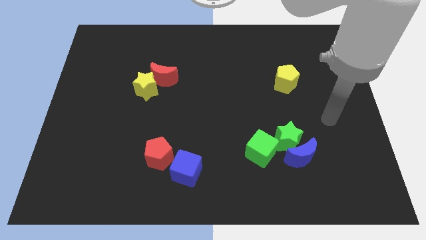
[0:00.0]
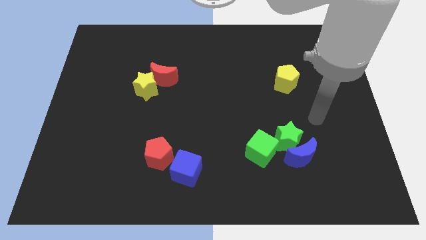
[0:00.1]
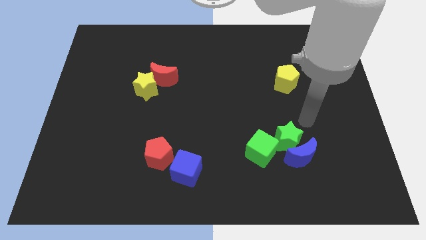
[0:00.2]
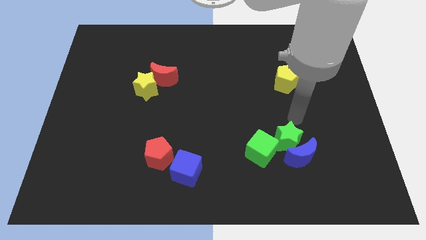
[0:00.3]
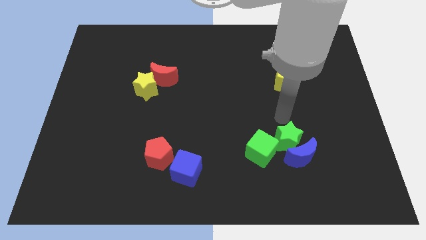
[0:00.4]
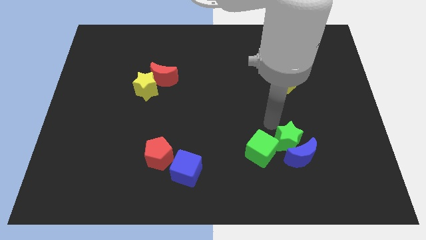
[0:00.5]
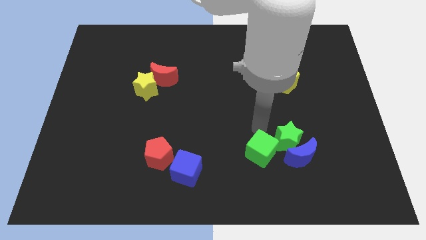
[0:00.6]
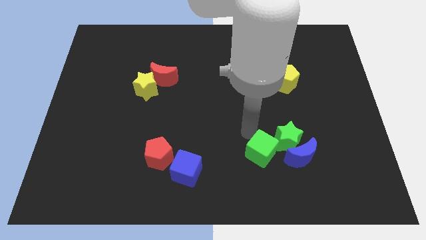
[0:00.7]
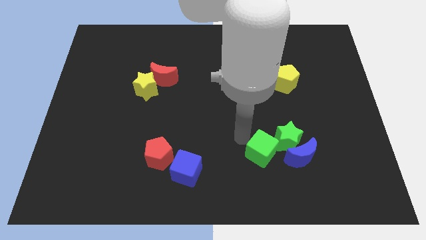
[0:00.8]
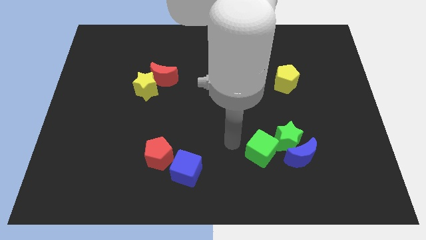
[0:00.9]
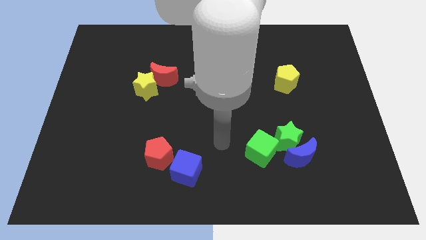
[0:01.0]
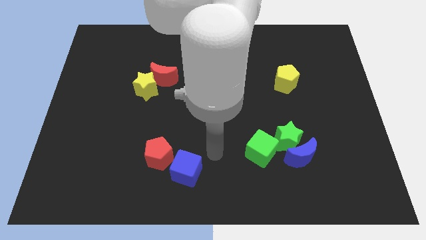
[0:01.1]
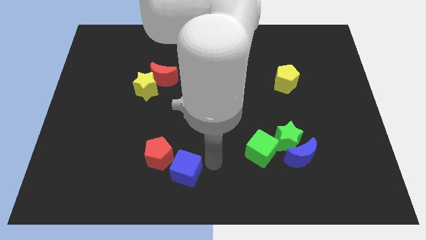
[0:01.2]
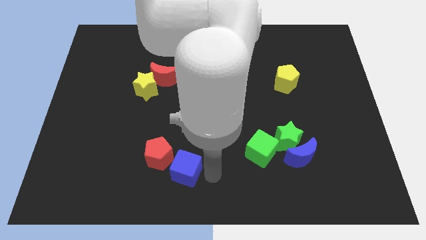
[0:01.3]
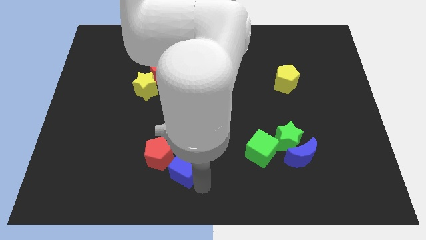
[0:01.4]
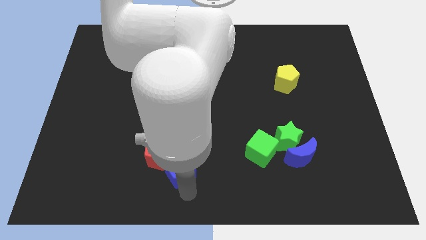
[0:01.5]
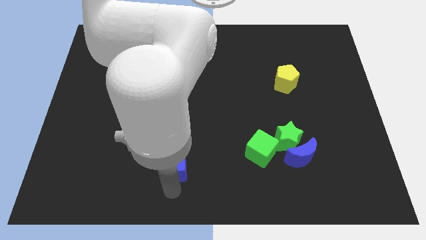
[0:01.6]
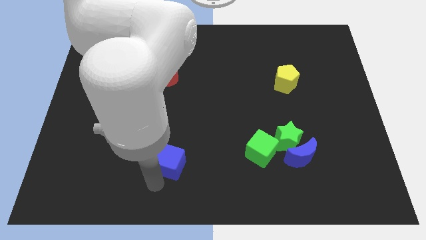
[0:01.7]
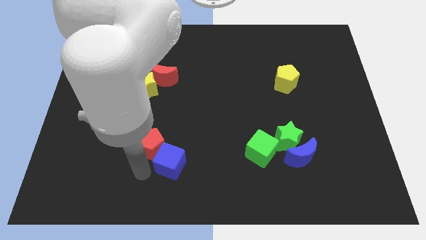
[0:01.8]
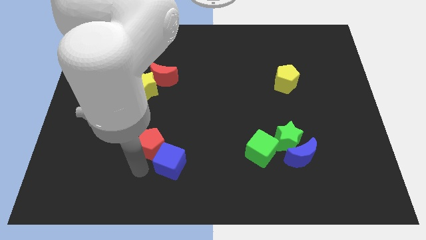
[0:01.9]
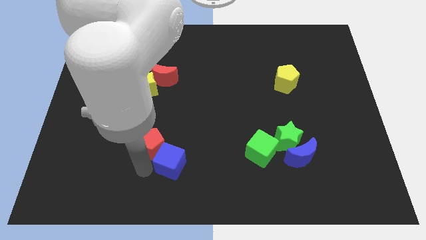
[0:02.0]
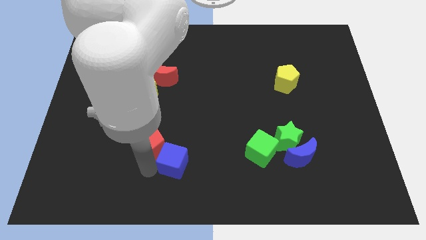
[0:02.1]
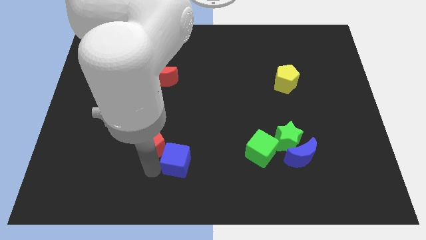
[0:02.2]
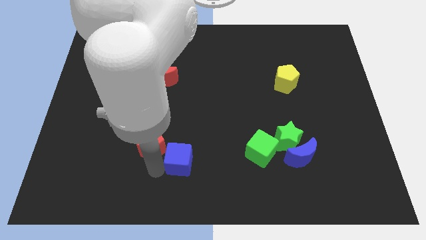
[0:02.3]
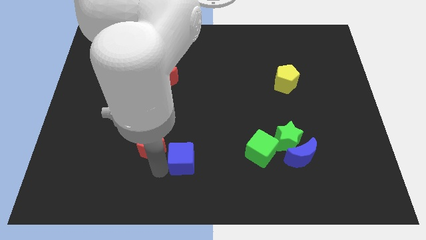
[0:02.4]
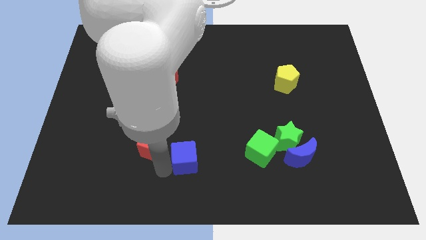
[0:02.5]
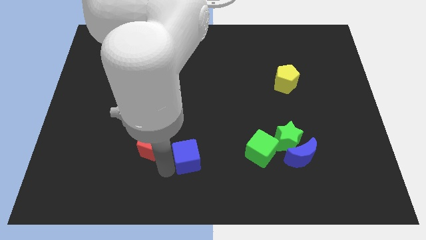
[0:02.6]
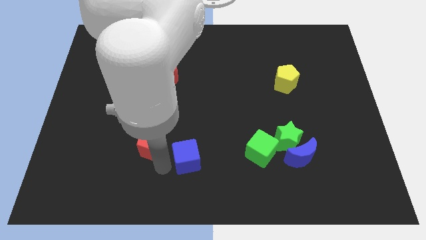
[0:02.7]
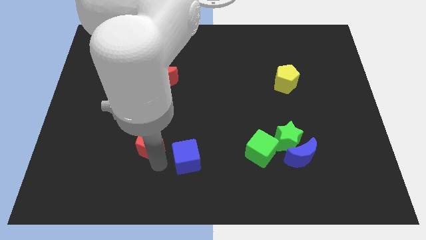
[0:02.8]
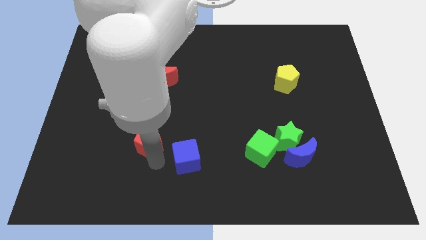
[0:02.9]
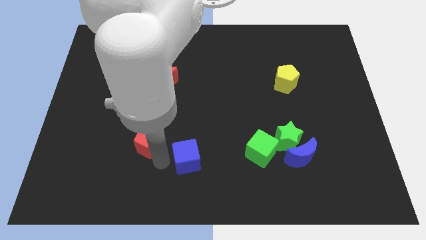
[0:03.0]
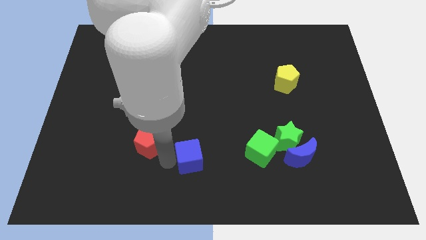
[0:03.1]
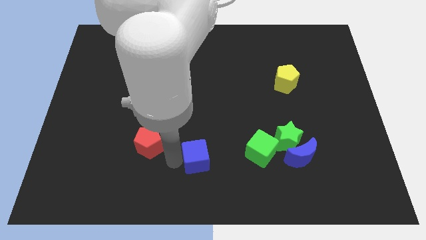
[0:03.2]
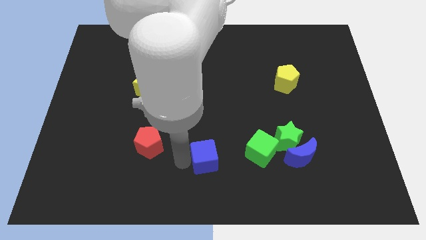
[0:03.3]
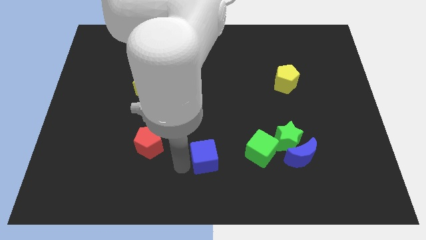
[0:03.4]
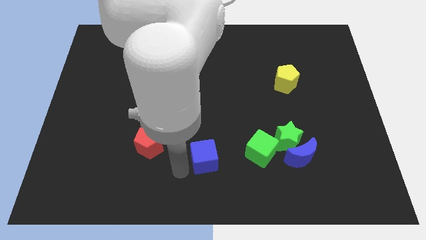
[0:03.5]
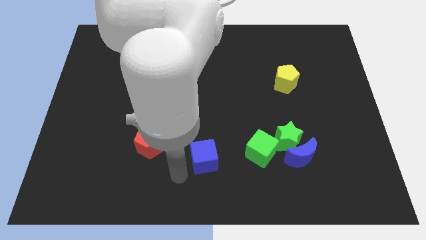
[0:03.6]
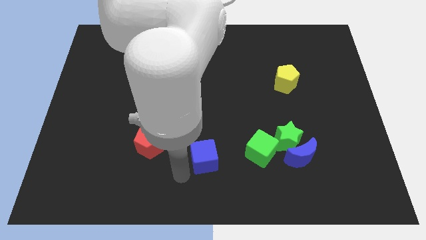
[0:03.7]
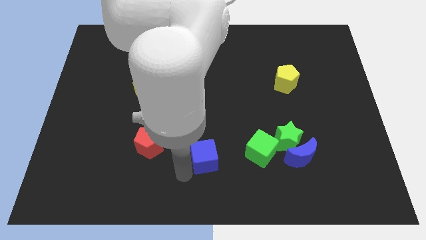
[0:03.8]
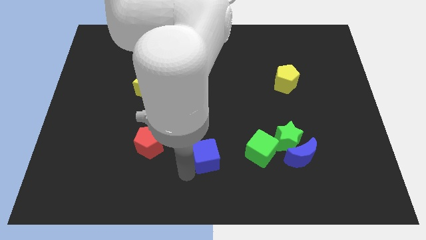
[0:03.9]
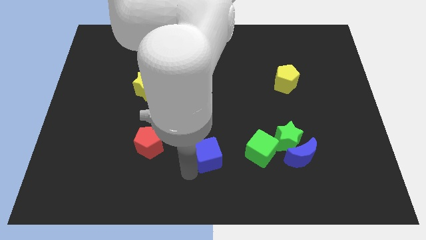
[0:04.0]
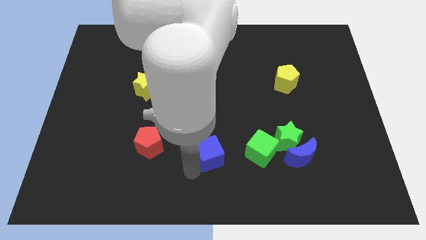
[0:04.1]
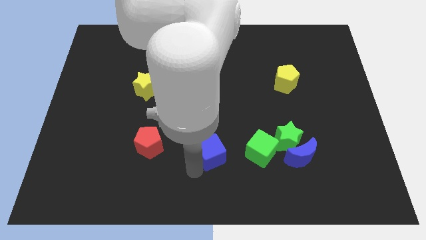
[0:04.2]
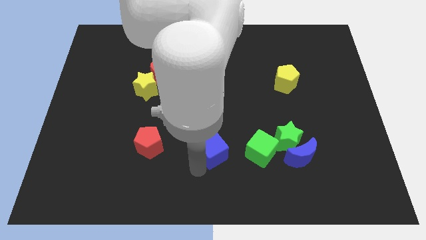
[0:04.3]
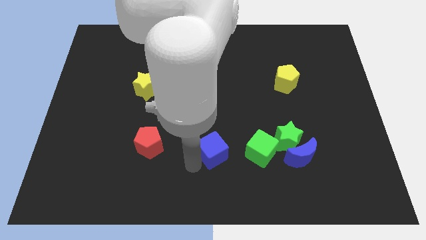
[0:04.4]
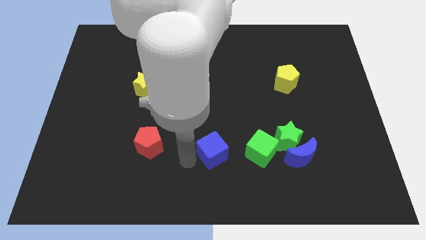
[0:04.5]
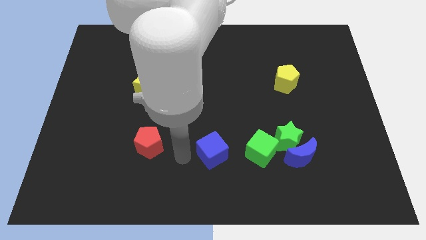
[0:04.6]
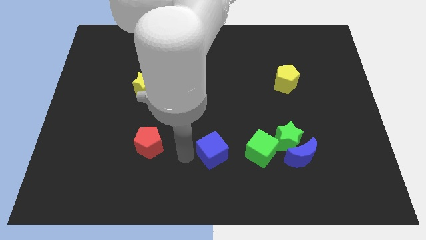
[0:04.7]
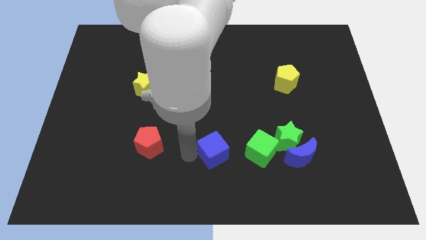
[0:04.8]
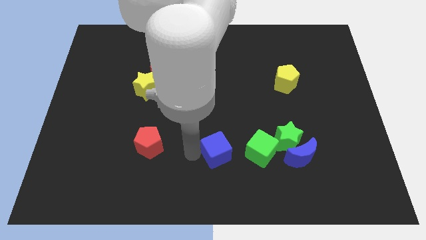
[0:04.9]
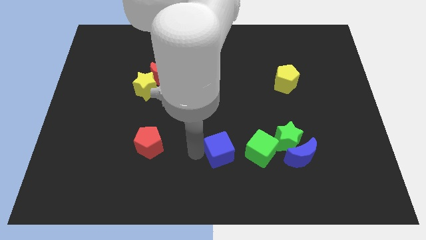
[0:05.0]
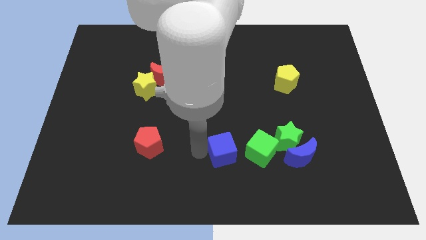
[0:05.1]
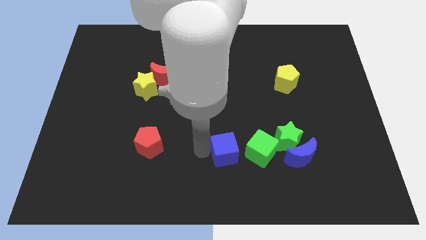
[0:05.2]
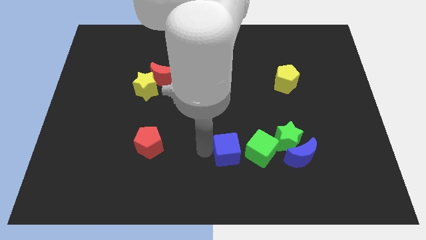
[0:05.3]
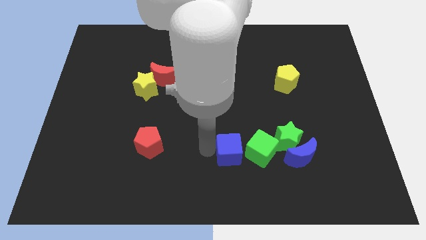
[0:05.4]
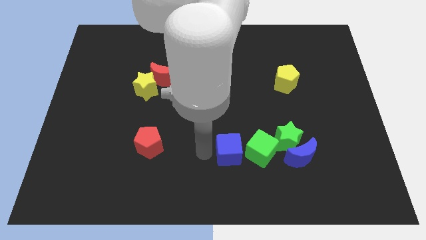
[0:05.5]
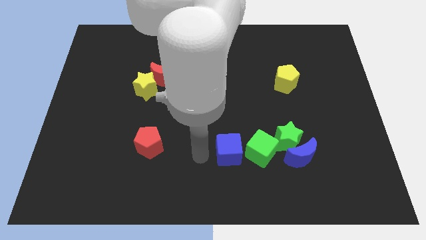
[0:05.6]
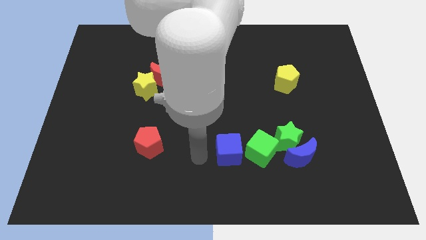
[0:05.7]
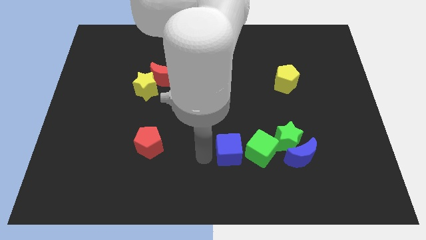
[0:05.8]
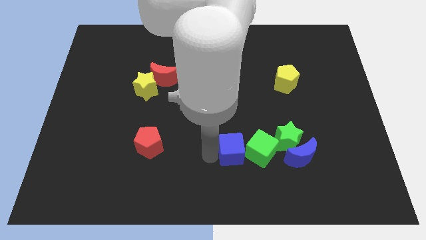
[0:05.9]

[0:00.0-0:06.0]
move the blue cube to the green cube

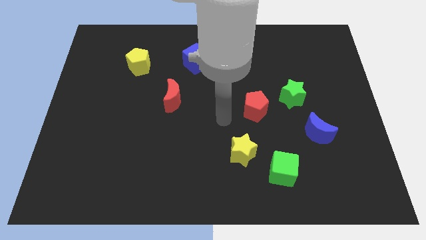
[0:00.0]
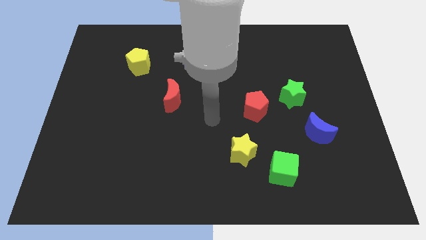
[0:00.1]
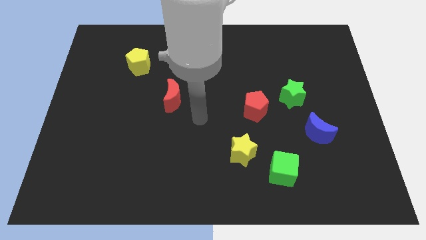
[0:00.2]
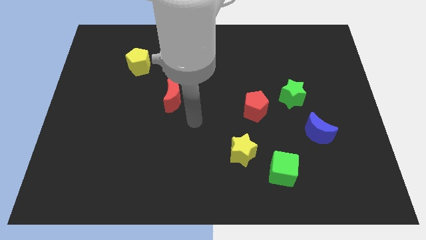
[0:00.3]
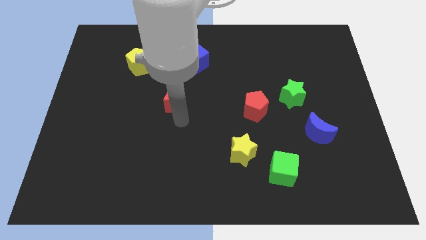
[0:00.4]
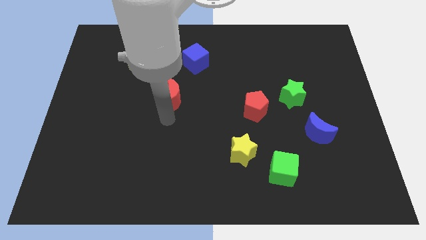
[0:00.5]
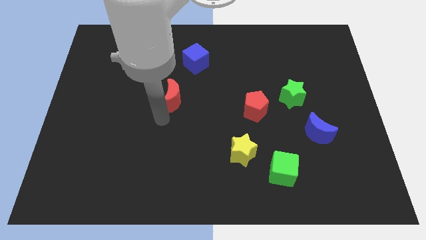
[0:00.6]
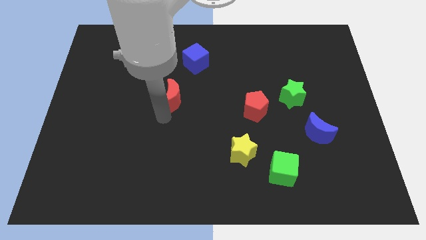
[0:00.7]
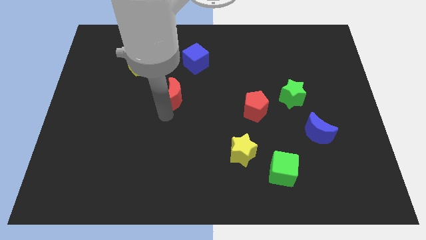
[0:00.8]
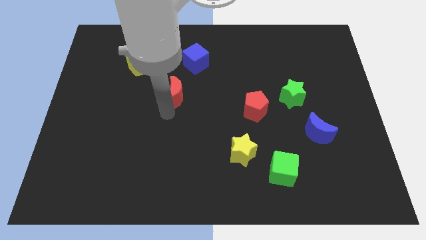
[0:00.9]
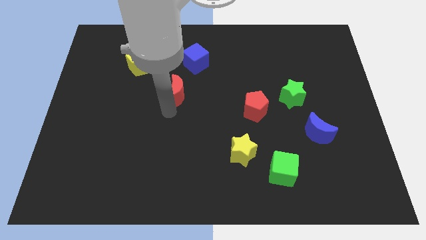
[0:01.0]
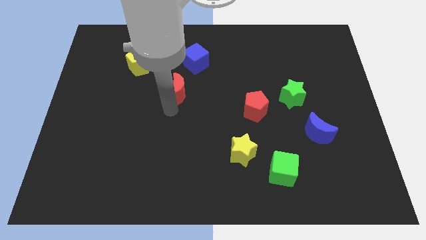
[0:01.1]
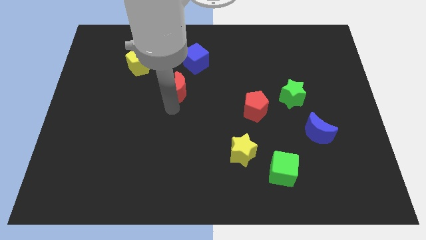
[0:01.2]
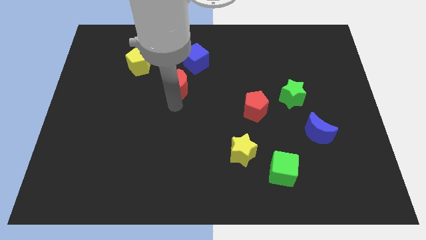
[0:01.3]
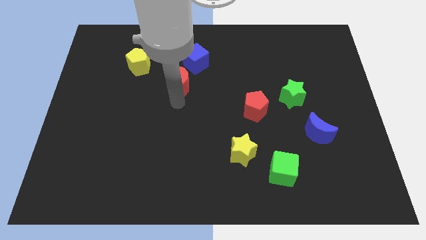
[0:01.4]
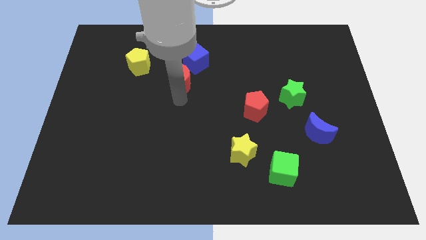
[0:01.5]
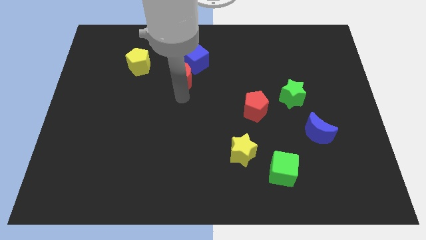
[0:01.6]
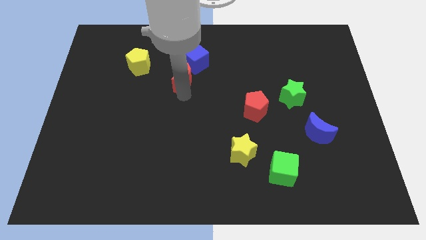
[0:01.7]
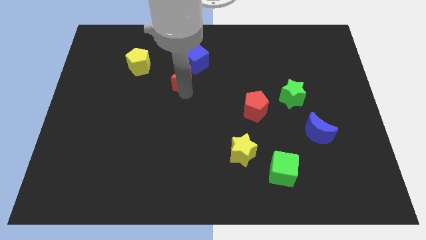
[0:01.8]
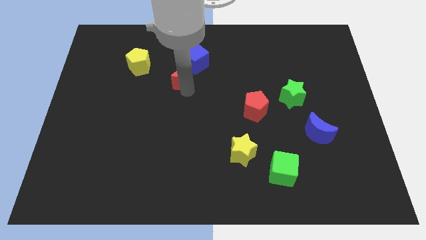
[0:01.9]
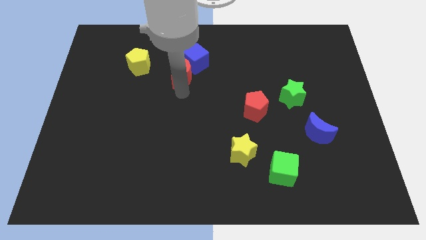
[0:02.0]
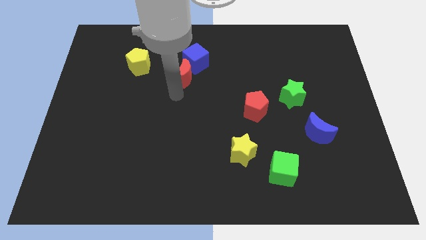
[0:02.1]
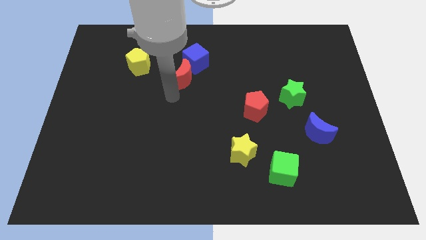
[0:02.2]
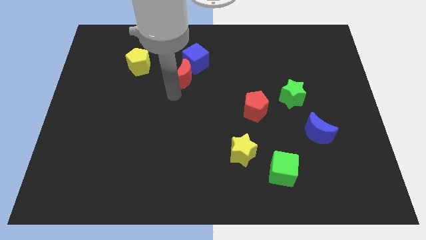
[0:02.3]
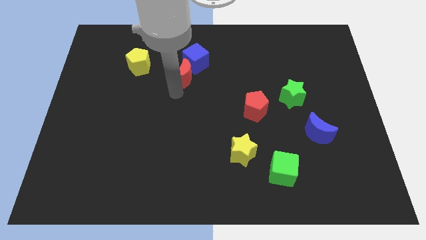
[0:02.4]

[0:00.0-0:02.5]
put the red moon close to the blue cube
